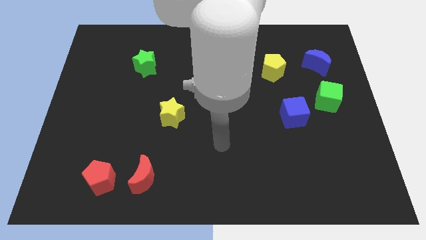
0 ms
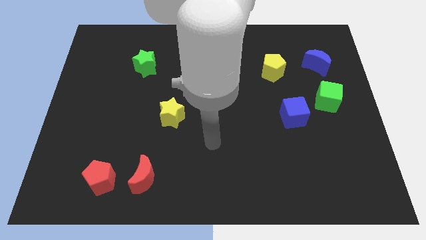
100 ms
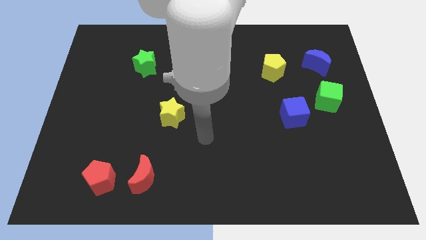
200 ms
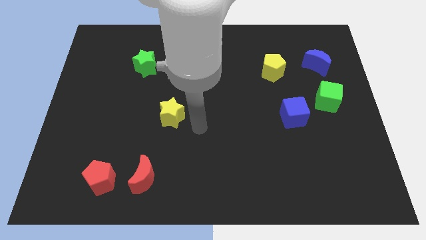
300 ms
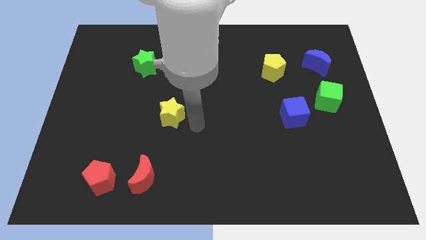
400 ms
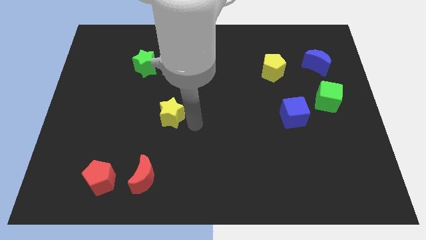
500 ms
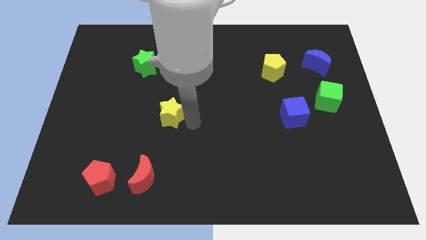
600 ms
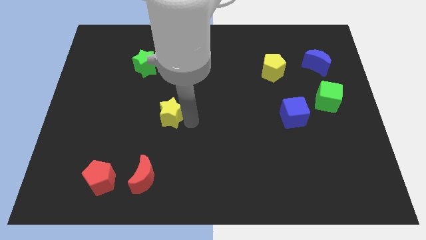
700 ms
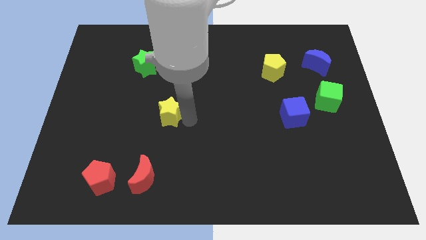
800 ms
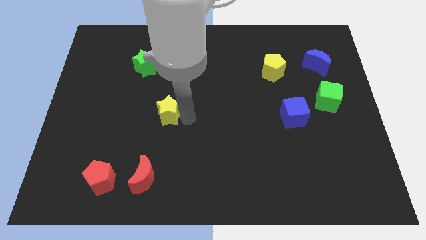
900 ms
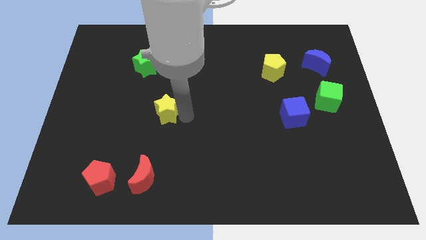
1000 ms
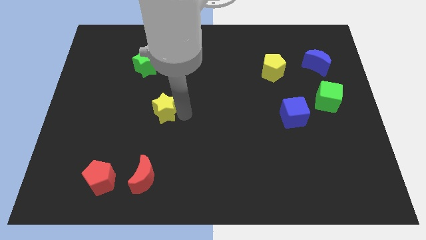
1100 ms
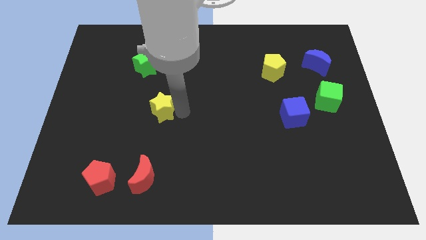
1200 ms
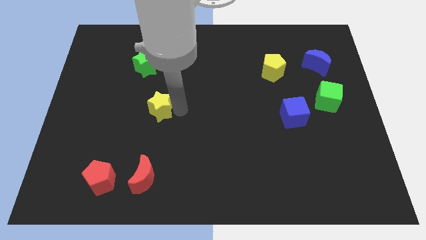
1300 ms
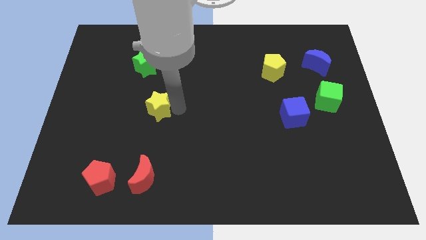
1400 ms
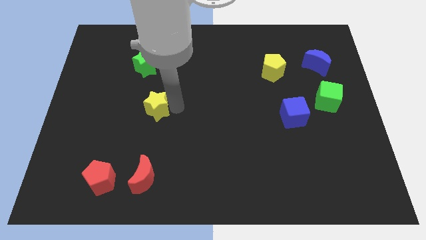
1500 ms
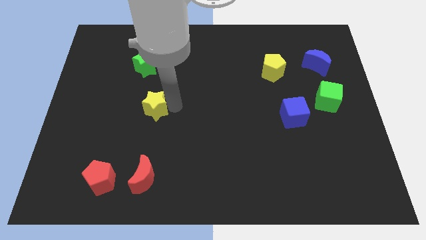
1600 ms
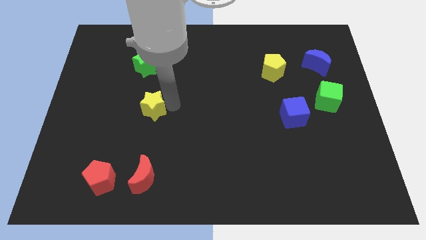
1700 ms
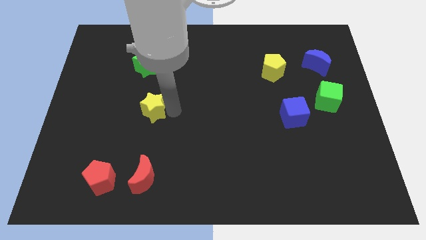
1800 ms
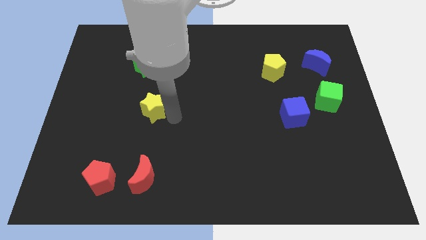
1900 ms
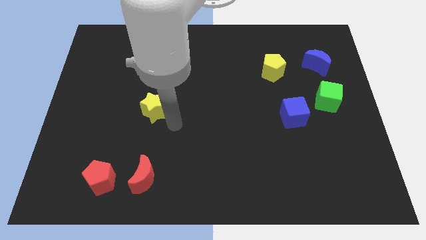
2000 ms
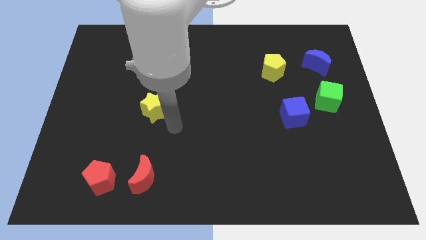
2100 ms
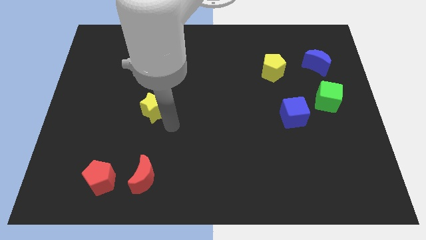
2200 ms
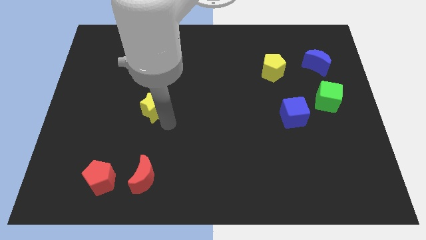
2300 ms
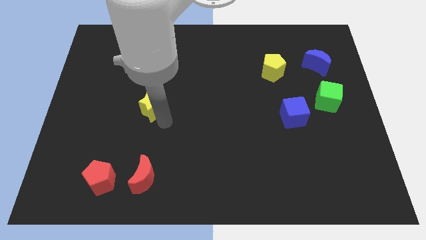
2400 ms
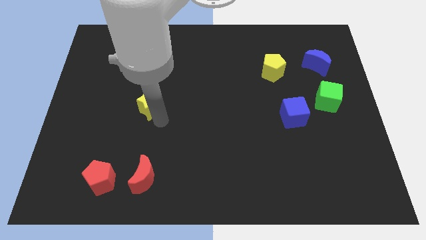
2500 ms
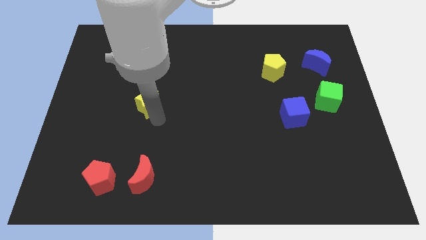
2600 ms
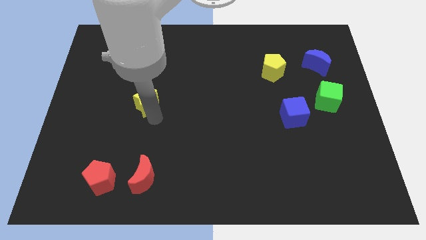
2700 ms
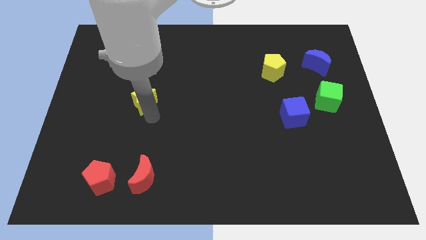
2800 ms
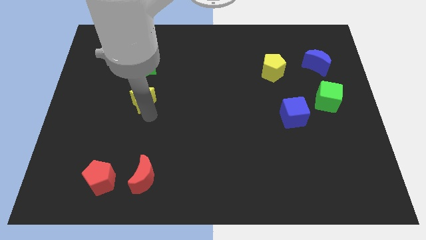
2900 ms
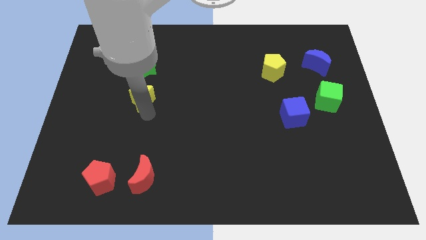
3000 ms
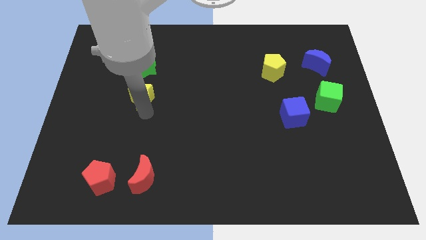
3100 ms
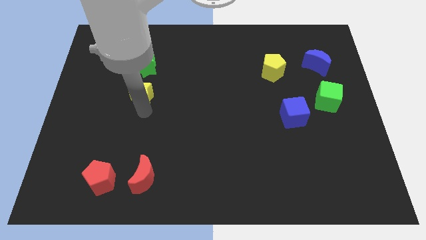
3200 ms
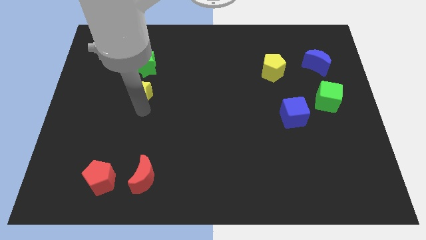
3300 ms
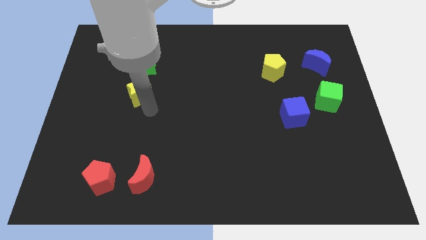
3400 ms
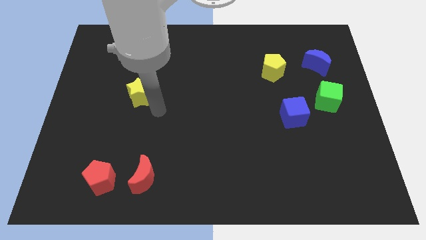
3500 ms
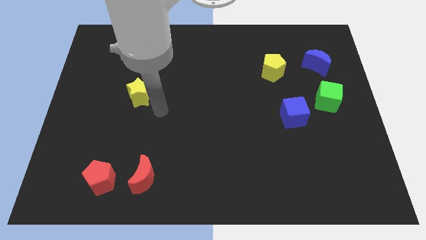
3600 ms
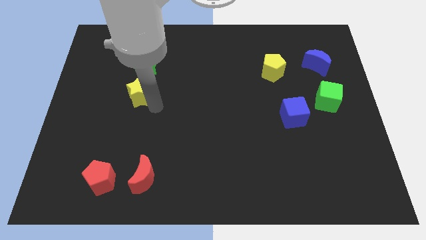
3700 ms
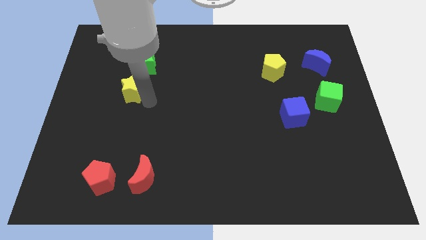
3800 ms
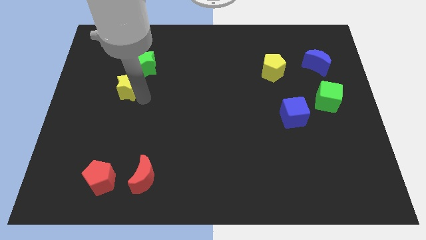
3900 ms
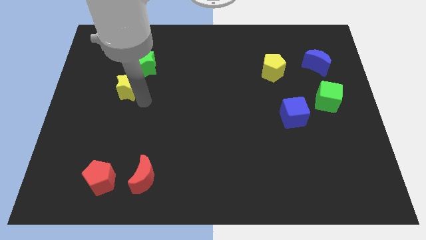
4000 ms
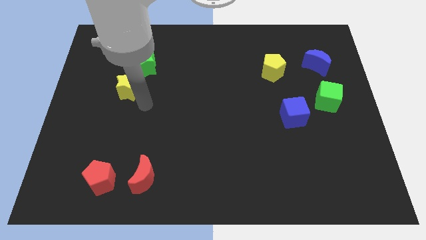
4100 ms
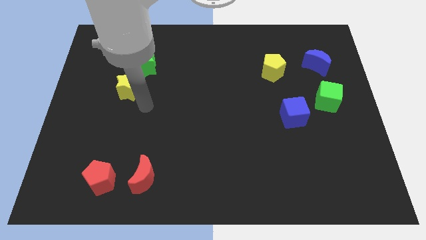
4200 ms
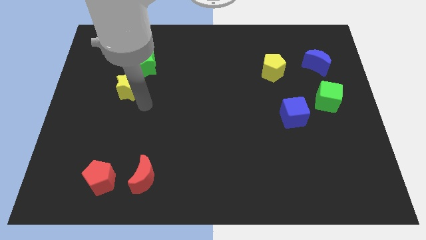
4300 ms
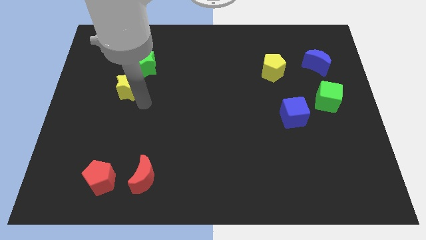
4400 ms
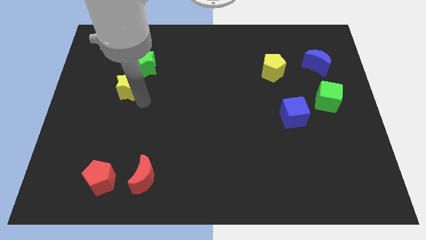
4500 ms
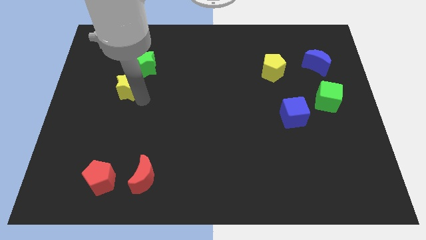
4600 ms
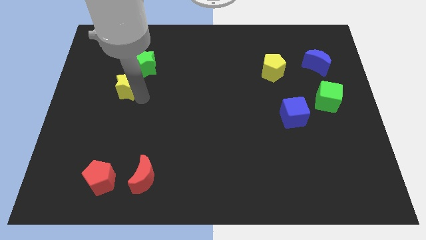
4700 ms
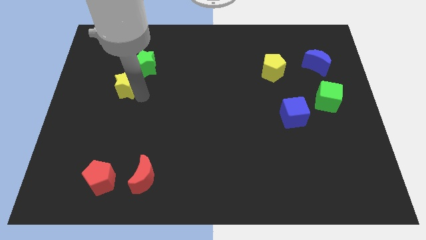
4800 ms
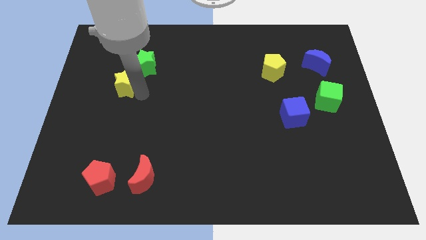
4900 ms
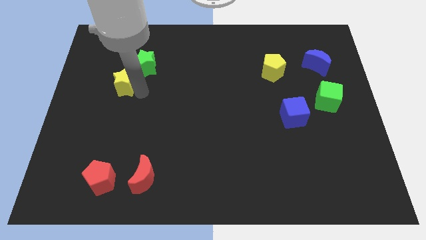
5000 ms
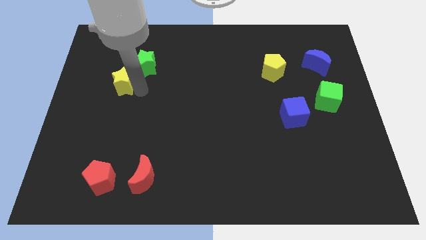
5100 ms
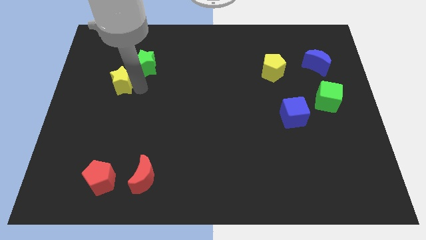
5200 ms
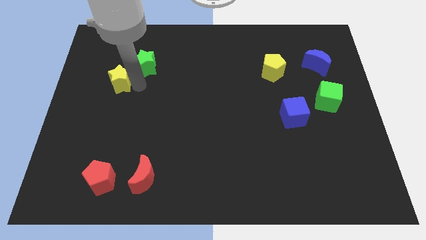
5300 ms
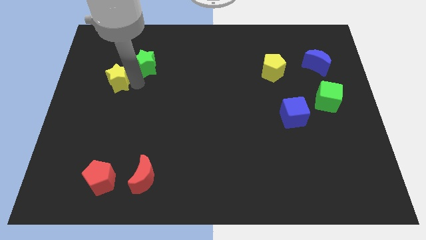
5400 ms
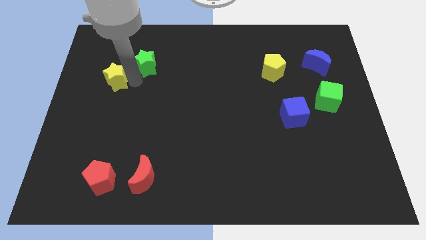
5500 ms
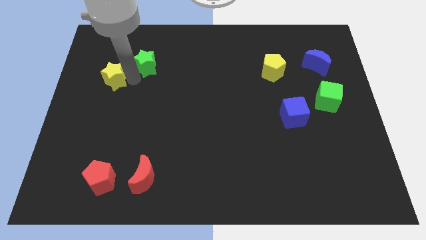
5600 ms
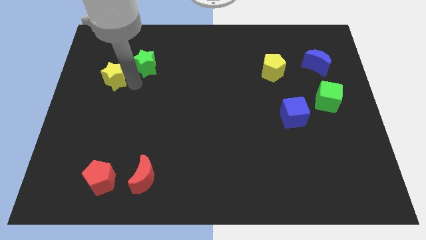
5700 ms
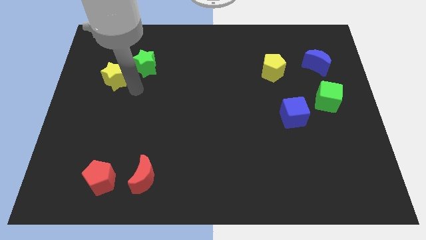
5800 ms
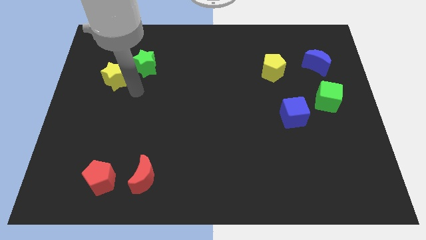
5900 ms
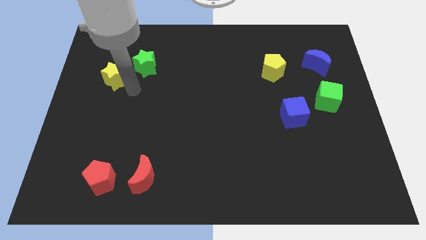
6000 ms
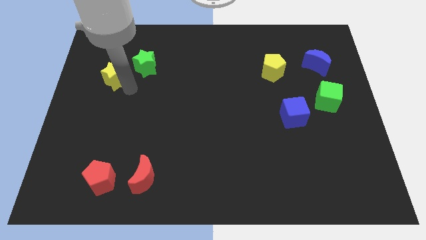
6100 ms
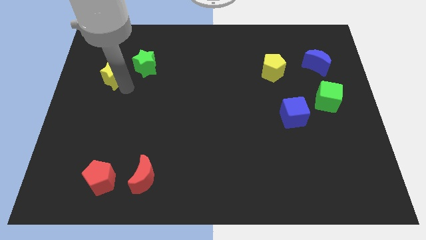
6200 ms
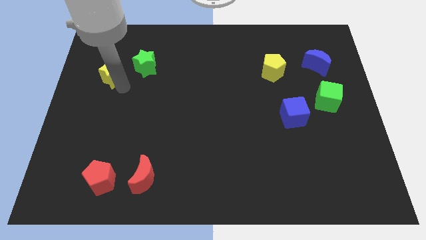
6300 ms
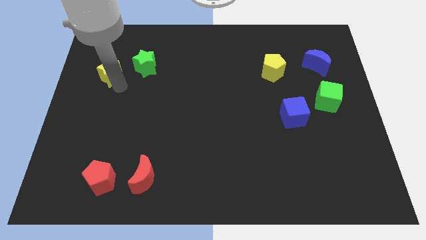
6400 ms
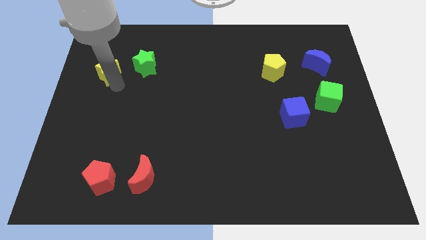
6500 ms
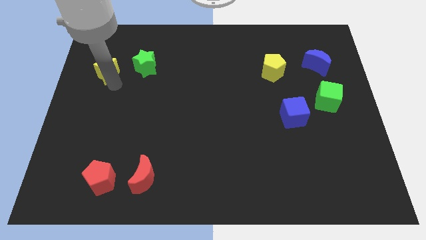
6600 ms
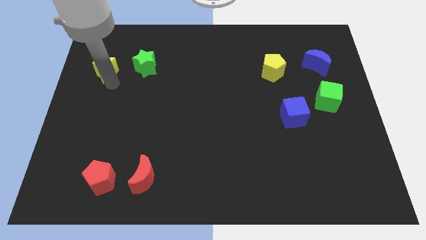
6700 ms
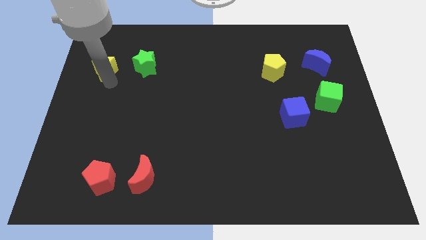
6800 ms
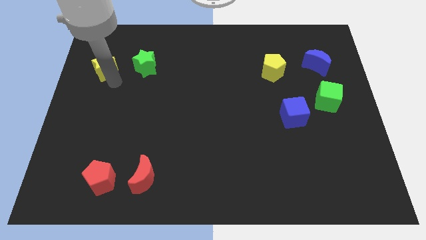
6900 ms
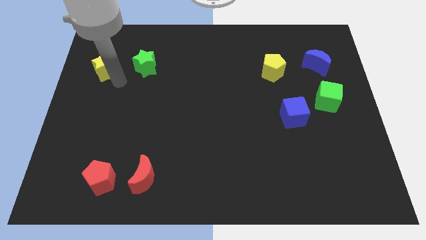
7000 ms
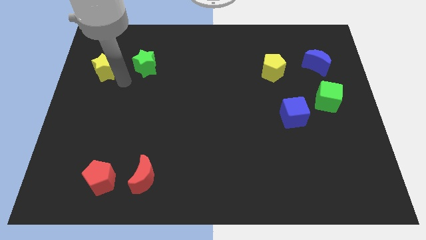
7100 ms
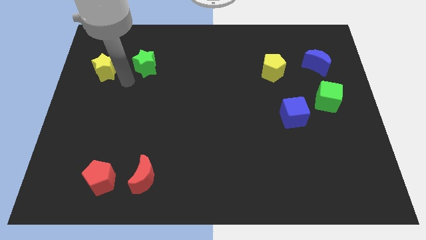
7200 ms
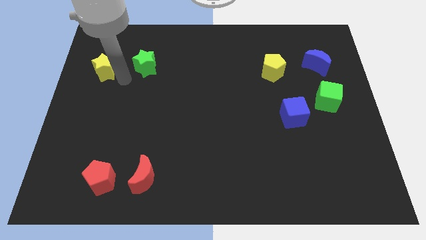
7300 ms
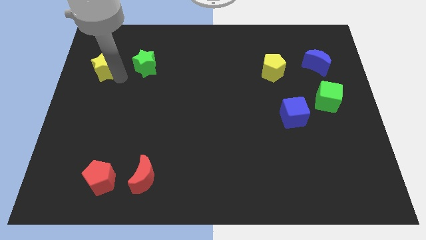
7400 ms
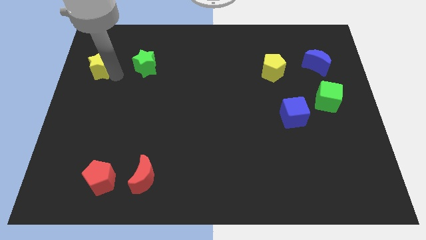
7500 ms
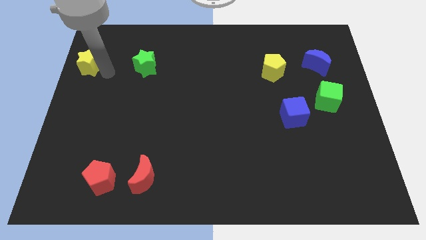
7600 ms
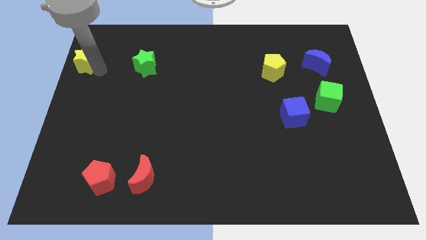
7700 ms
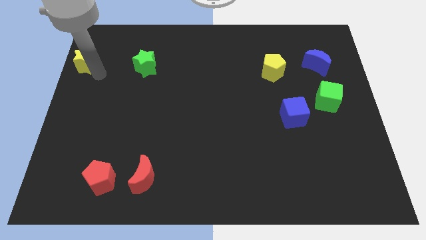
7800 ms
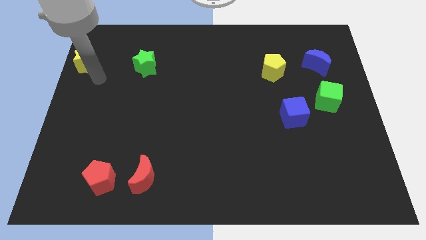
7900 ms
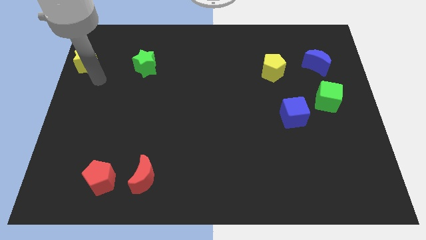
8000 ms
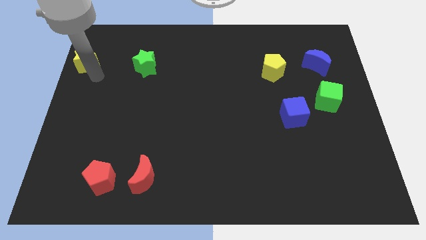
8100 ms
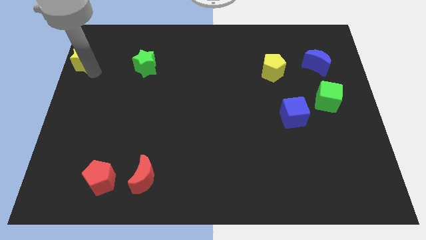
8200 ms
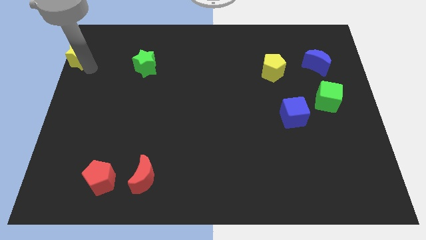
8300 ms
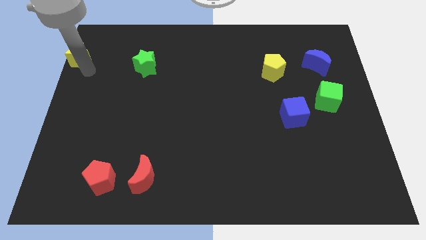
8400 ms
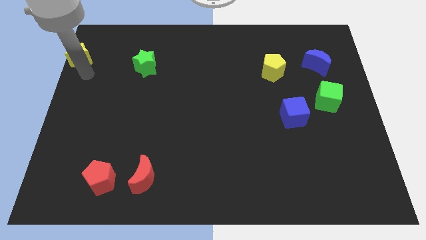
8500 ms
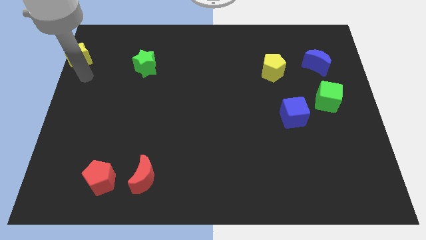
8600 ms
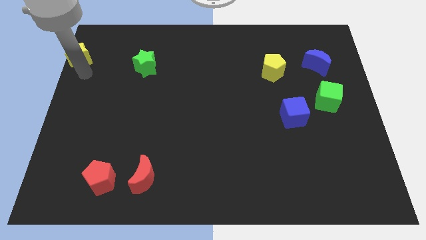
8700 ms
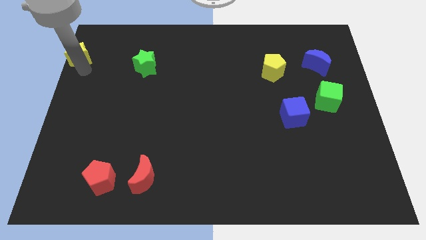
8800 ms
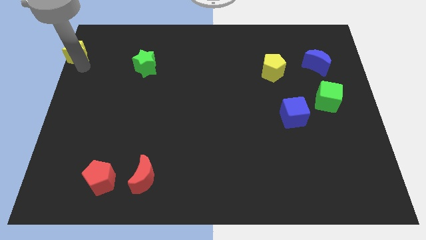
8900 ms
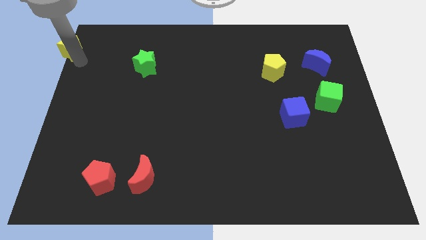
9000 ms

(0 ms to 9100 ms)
slide the yellow star to the top left corner
